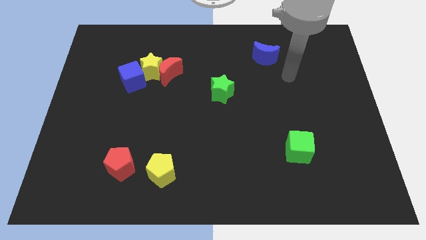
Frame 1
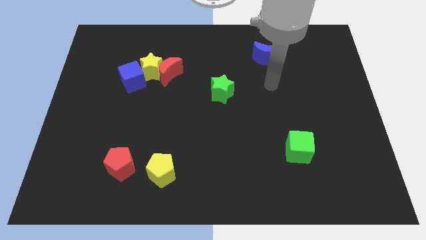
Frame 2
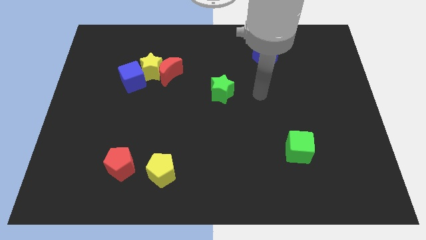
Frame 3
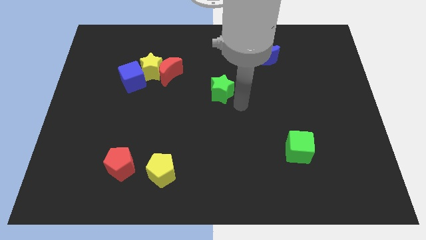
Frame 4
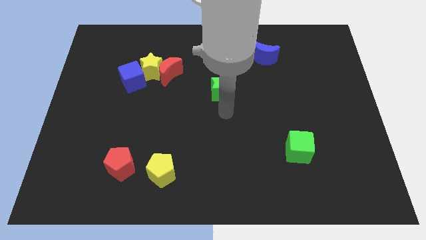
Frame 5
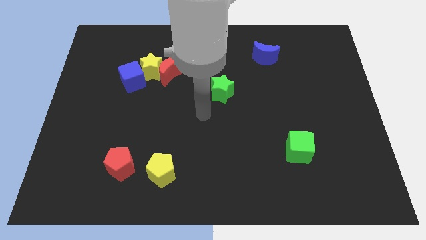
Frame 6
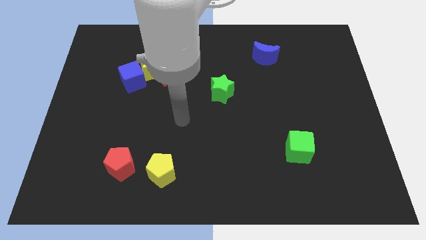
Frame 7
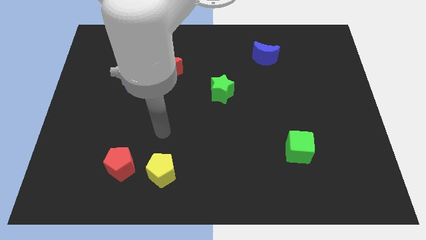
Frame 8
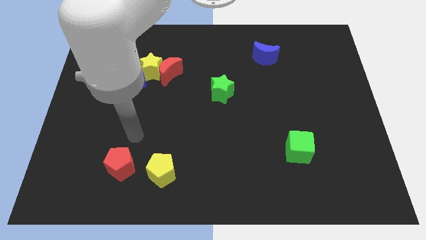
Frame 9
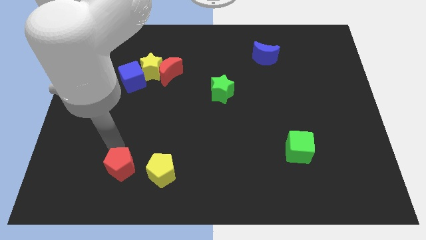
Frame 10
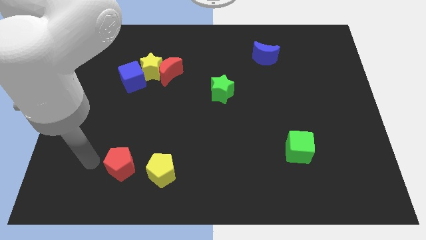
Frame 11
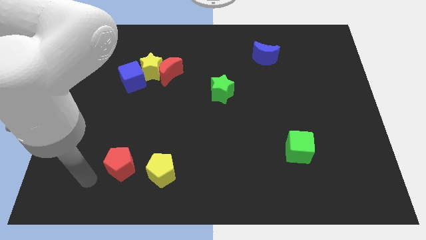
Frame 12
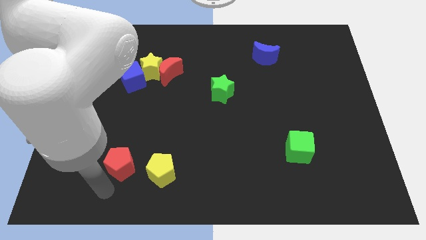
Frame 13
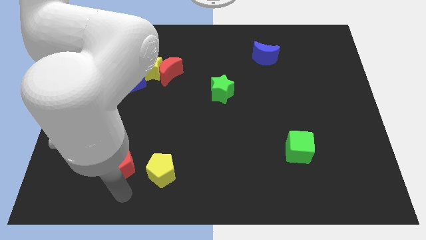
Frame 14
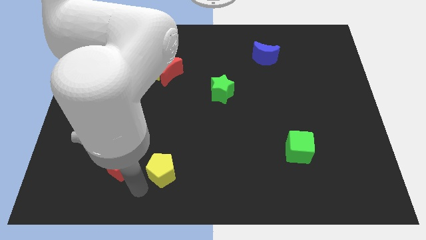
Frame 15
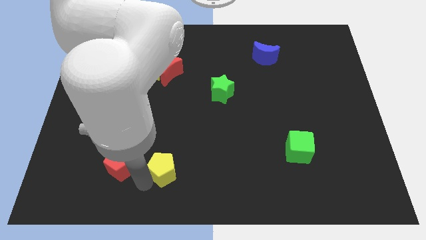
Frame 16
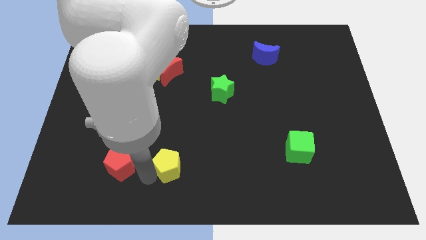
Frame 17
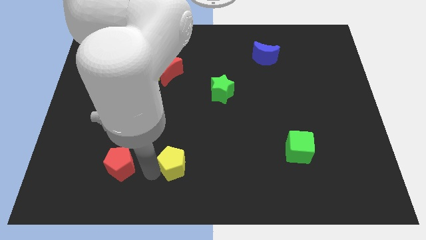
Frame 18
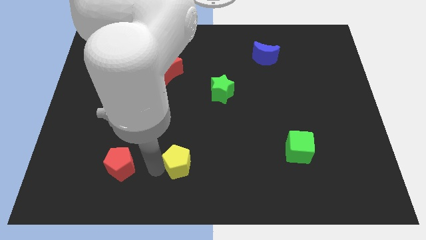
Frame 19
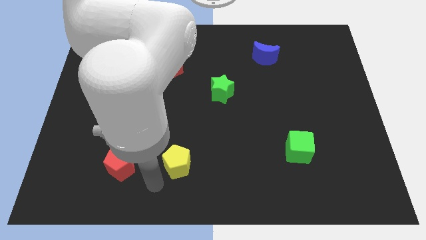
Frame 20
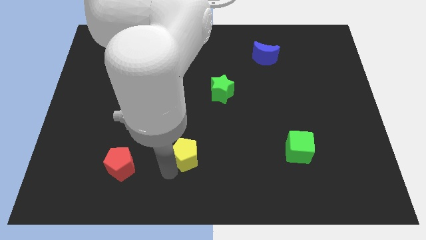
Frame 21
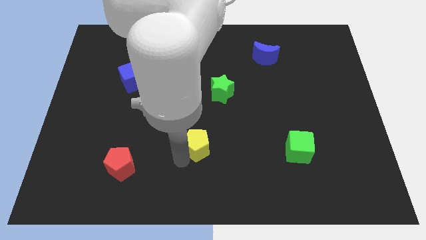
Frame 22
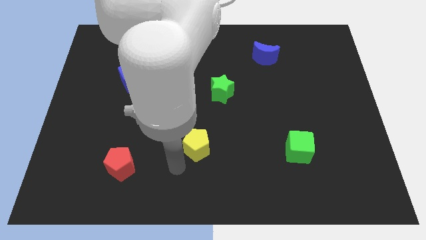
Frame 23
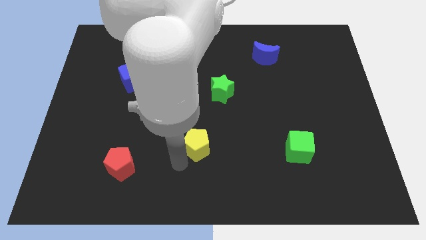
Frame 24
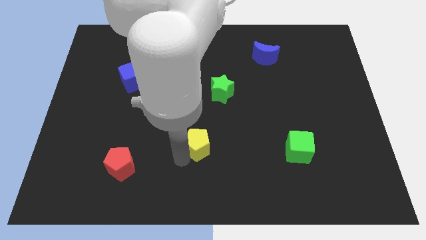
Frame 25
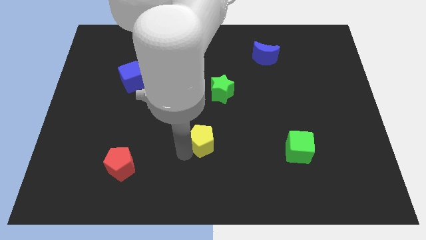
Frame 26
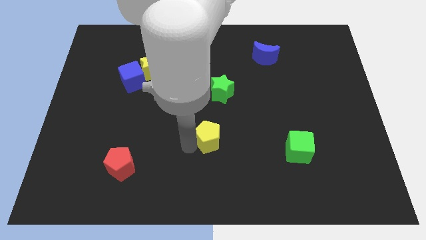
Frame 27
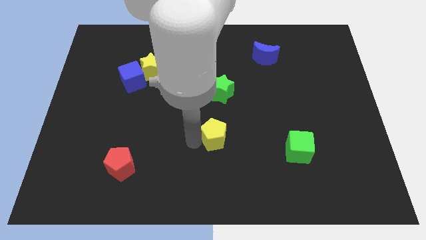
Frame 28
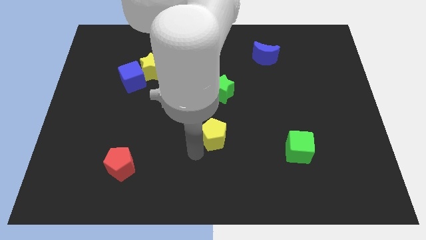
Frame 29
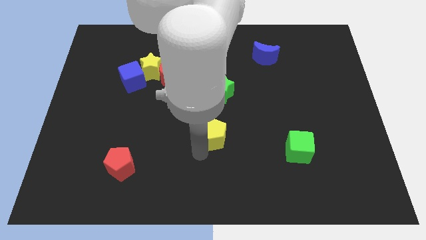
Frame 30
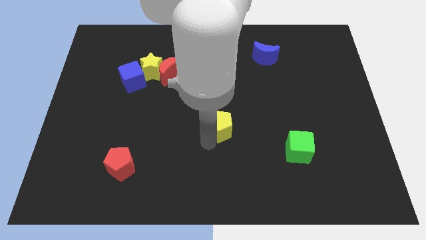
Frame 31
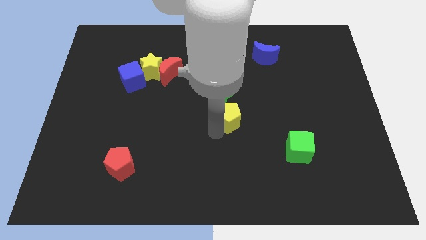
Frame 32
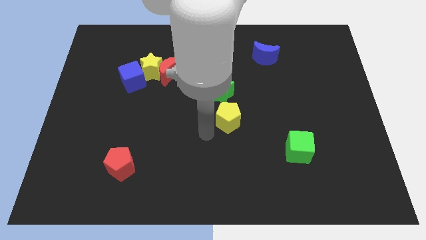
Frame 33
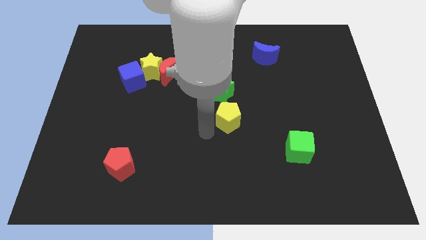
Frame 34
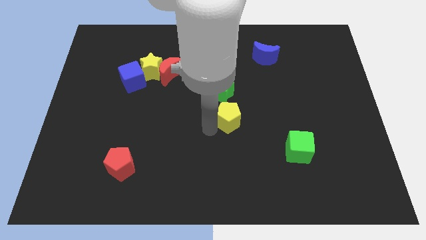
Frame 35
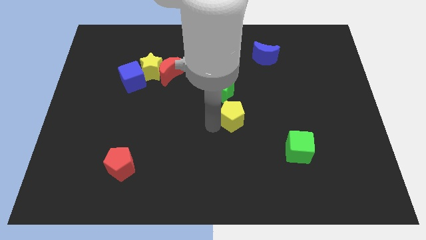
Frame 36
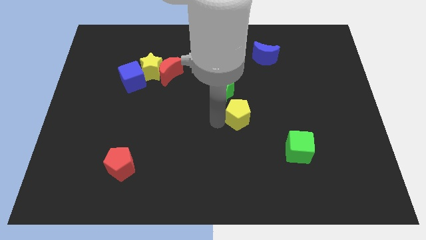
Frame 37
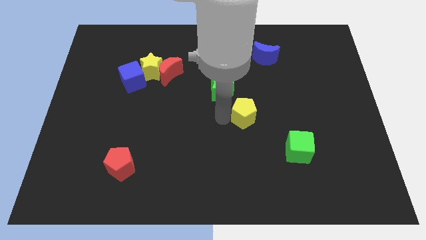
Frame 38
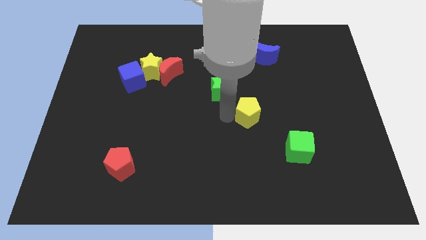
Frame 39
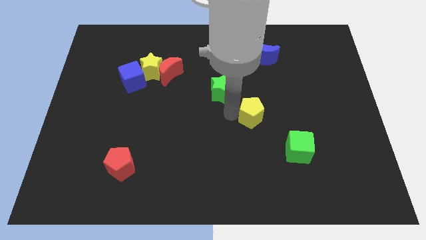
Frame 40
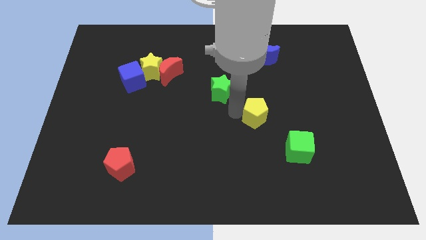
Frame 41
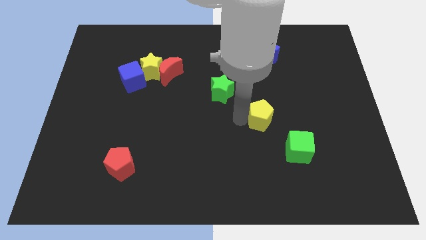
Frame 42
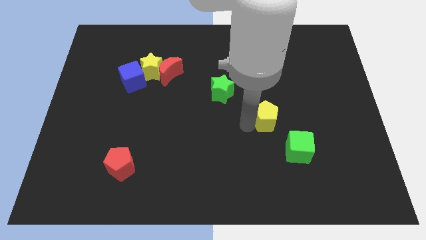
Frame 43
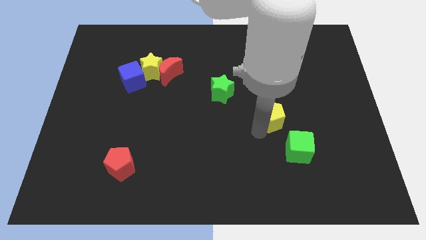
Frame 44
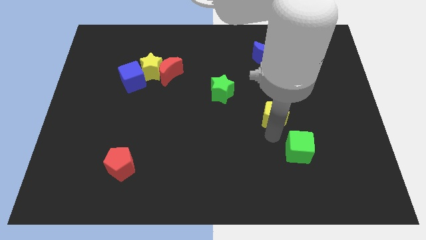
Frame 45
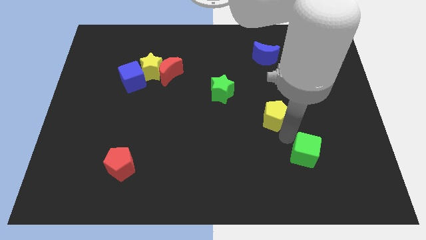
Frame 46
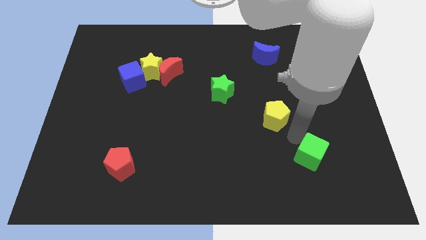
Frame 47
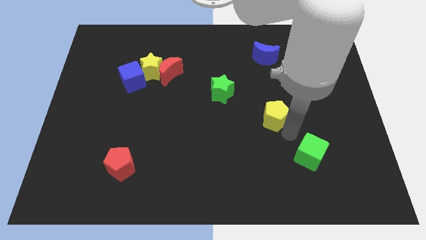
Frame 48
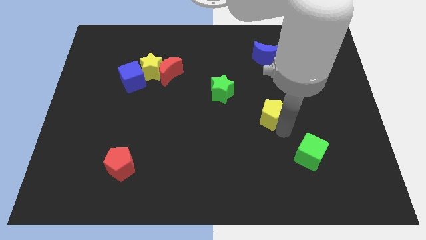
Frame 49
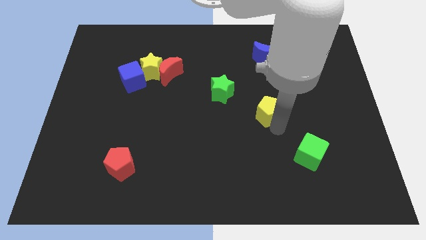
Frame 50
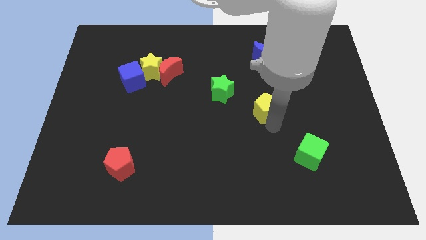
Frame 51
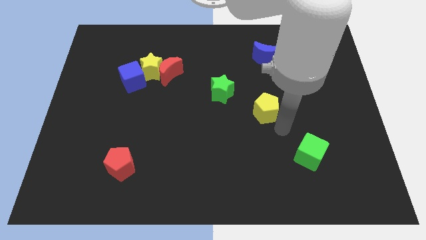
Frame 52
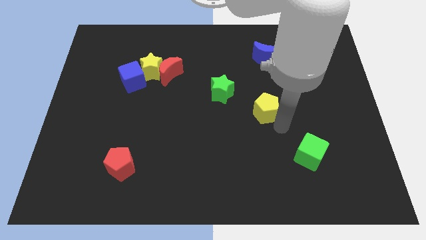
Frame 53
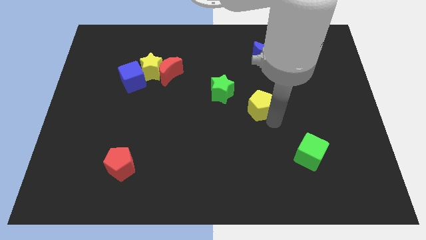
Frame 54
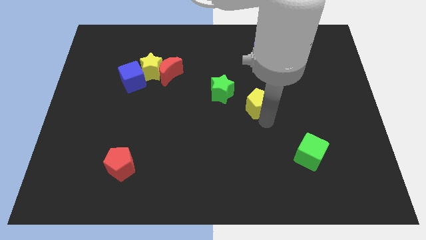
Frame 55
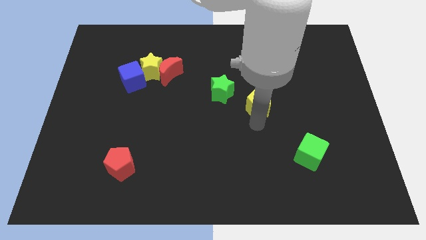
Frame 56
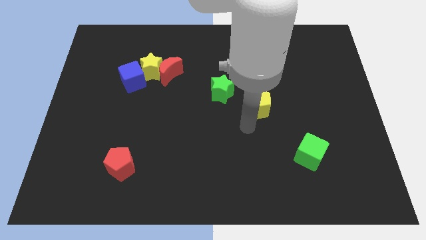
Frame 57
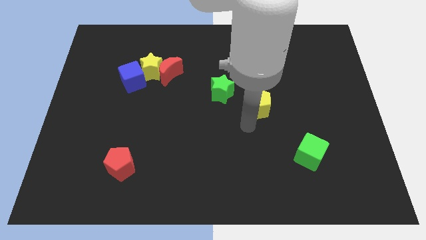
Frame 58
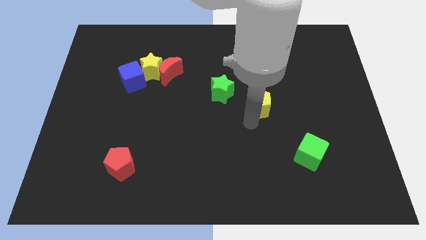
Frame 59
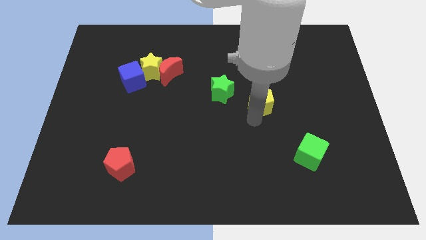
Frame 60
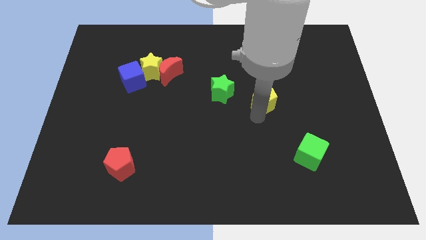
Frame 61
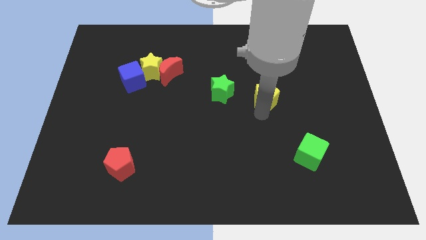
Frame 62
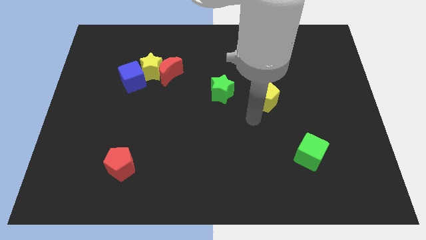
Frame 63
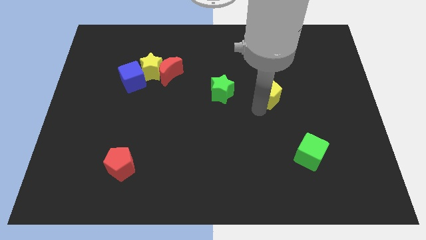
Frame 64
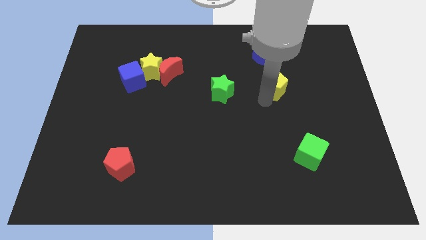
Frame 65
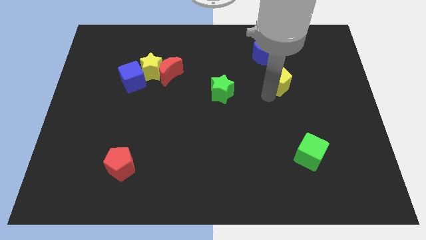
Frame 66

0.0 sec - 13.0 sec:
put the yellow pentagon to the bottom right of the blue moon
